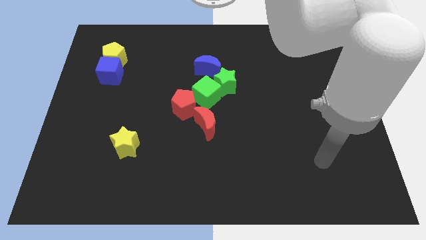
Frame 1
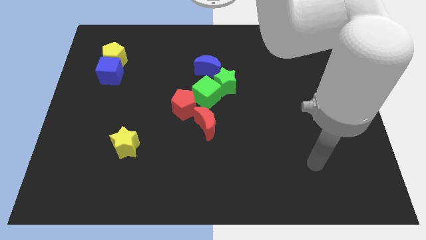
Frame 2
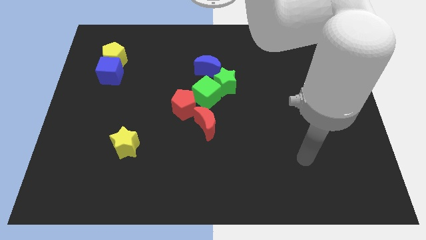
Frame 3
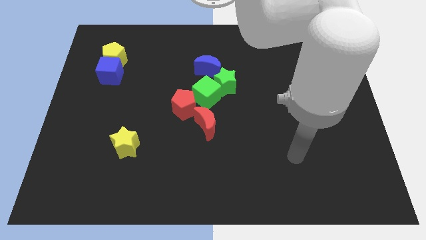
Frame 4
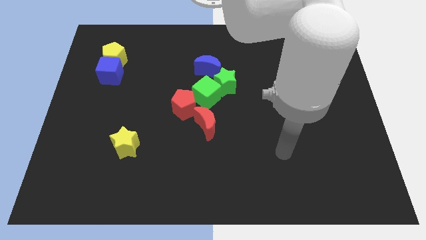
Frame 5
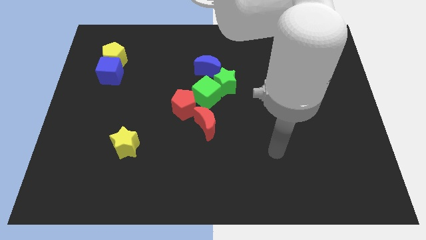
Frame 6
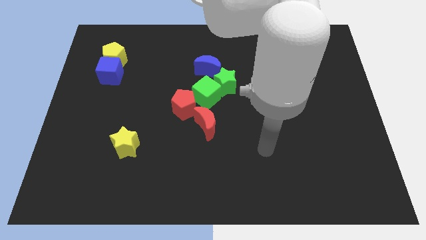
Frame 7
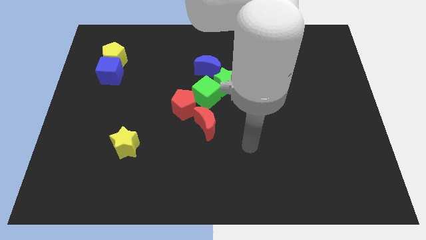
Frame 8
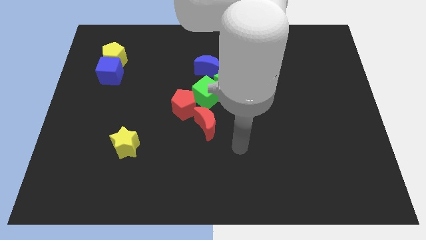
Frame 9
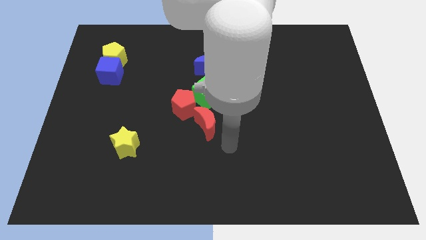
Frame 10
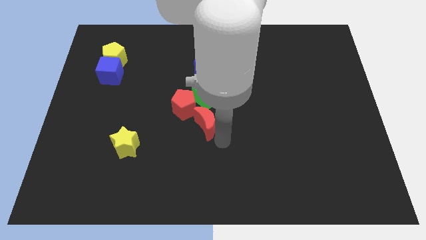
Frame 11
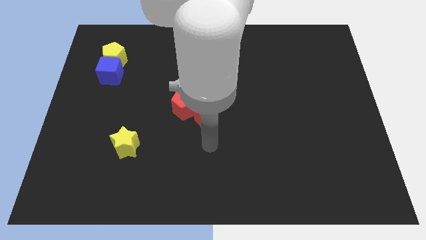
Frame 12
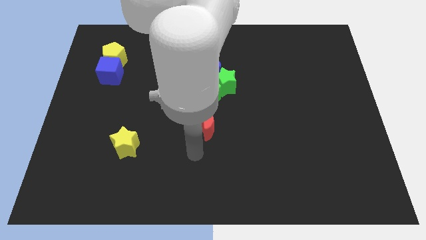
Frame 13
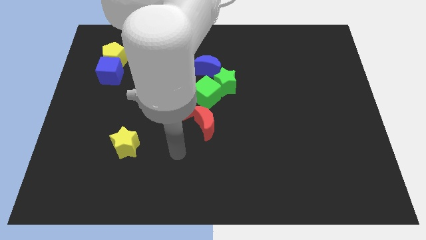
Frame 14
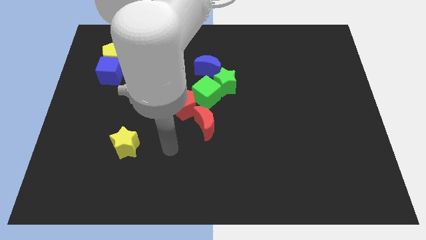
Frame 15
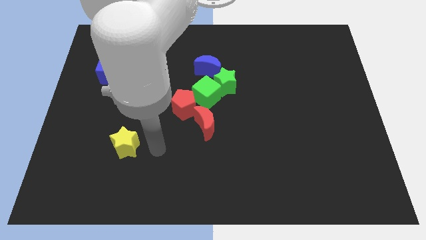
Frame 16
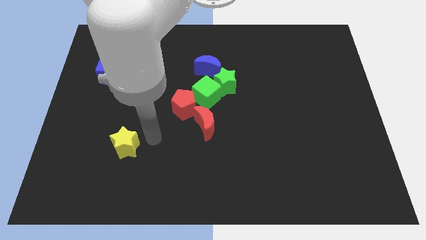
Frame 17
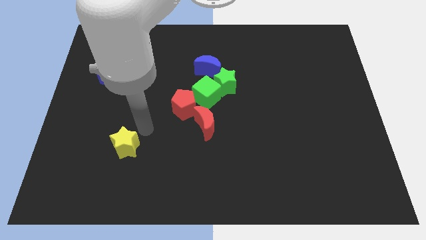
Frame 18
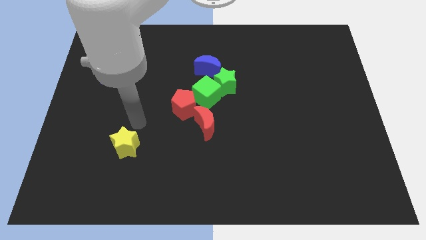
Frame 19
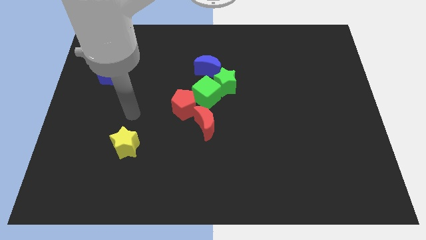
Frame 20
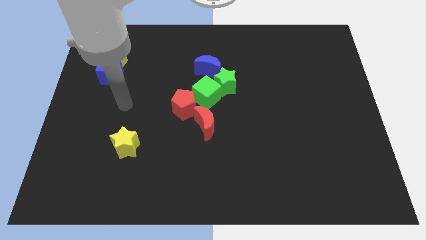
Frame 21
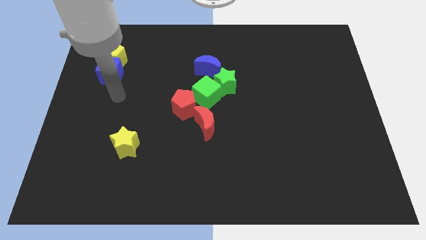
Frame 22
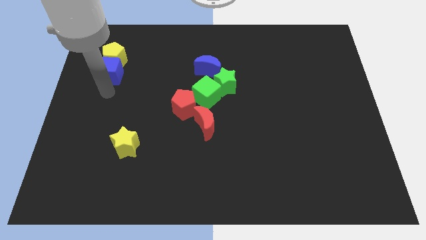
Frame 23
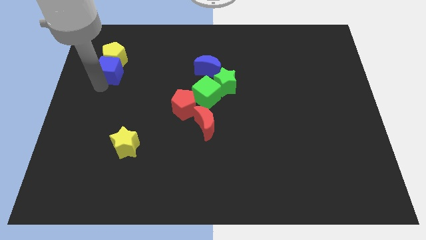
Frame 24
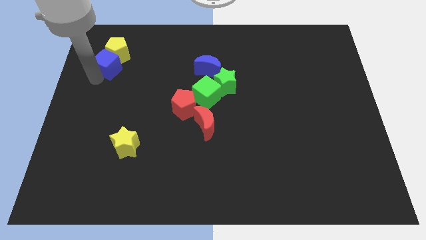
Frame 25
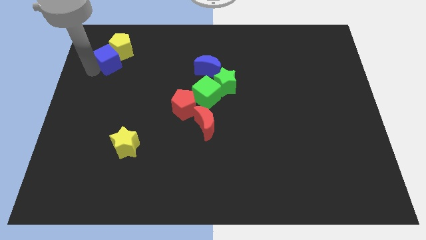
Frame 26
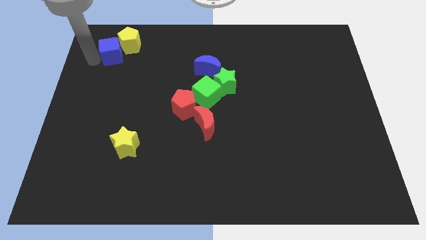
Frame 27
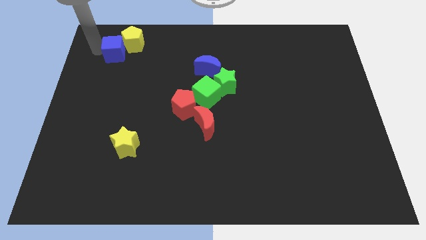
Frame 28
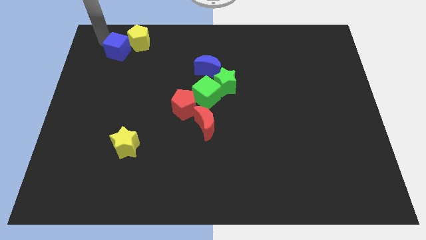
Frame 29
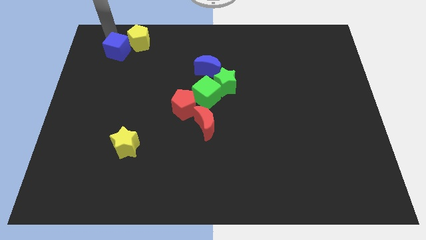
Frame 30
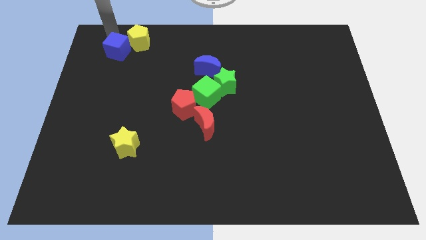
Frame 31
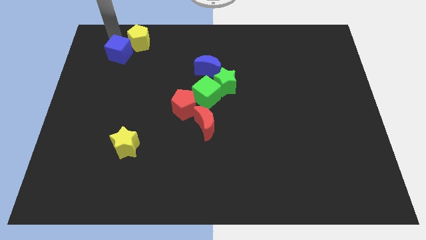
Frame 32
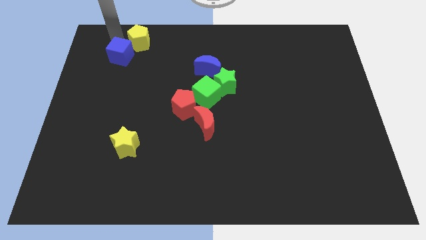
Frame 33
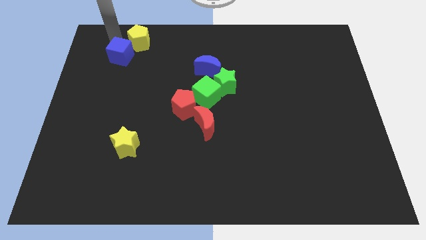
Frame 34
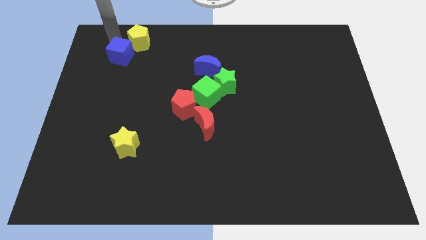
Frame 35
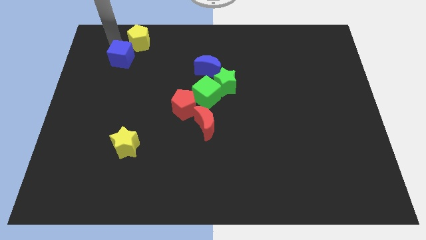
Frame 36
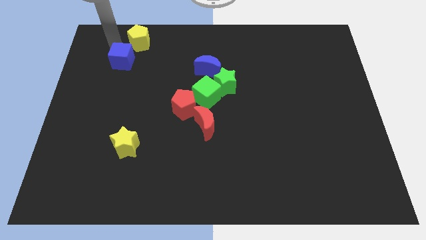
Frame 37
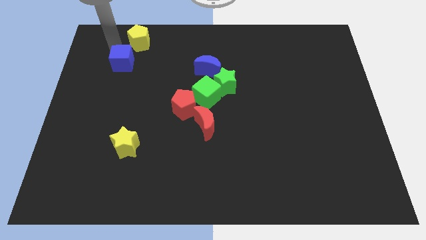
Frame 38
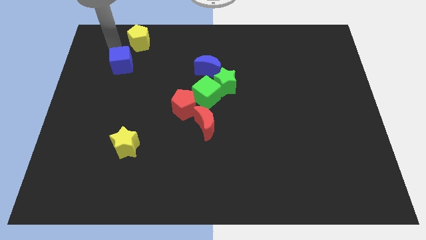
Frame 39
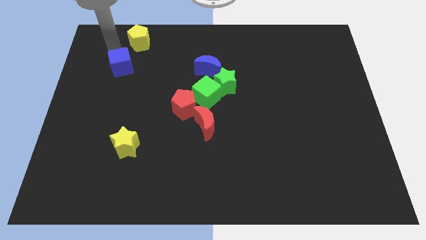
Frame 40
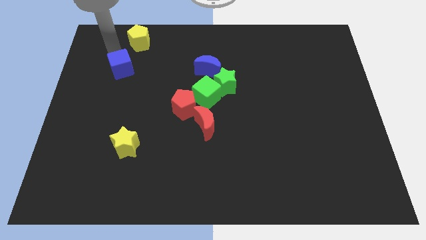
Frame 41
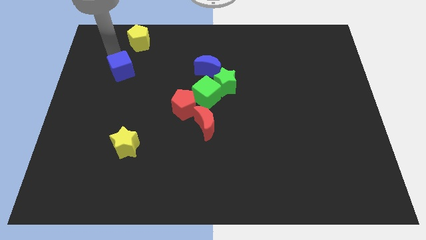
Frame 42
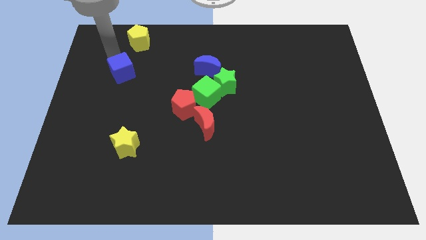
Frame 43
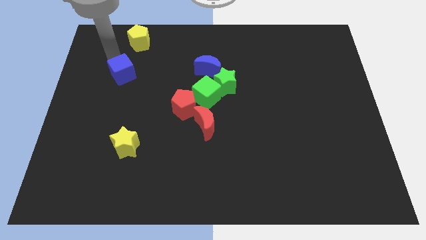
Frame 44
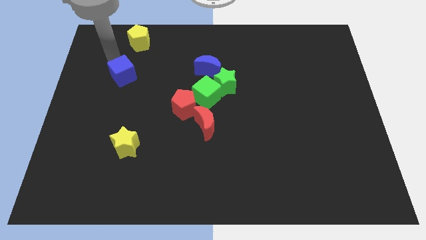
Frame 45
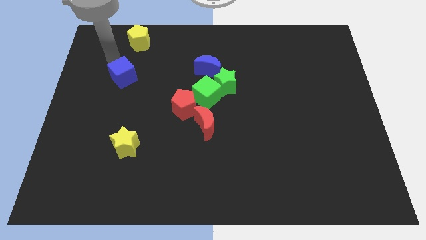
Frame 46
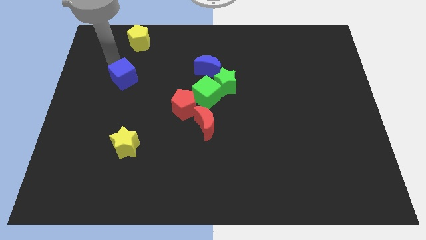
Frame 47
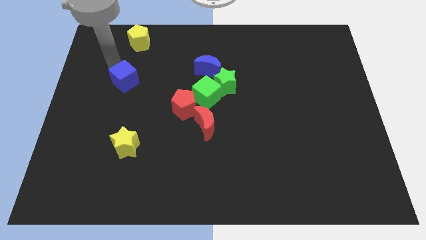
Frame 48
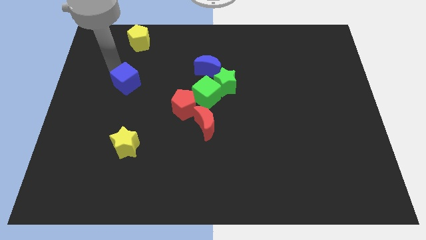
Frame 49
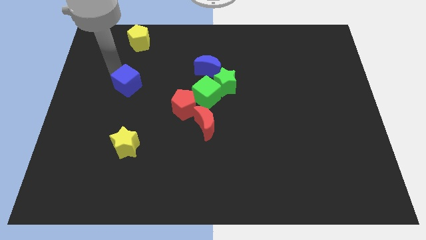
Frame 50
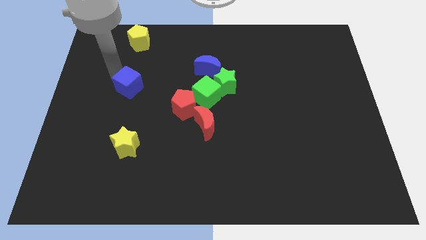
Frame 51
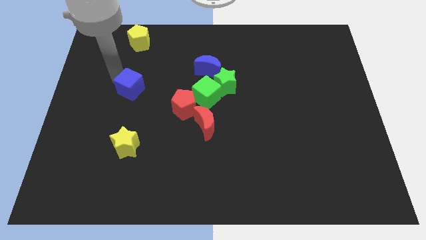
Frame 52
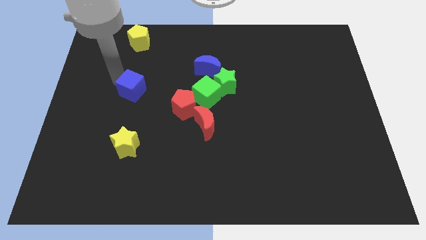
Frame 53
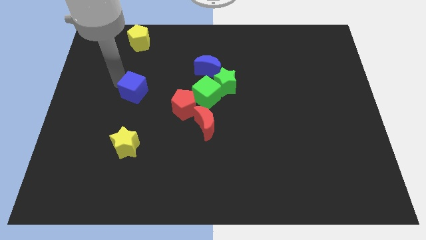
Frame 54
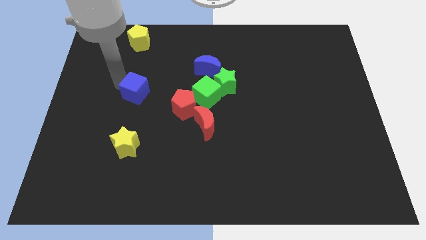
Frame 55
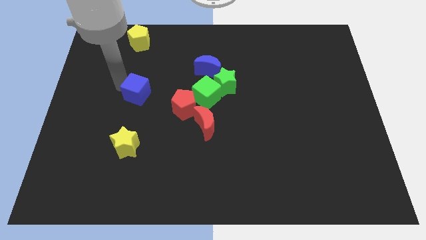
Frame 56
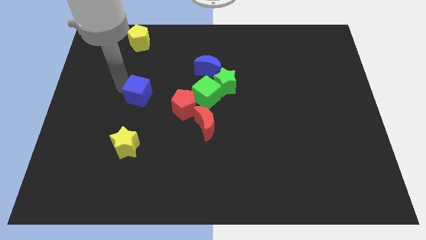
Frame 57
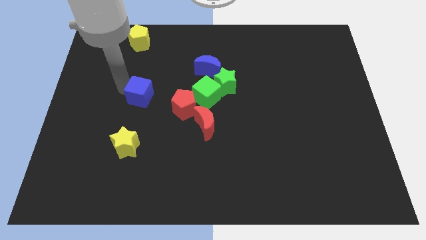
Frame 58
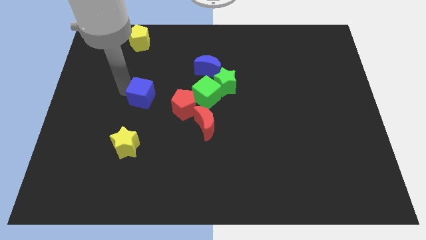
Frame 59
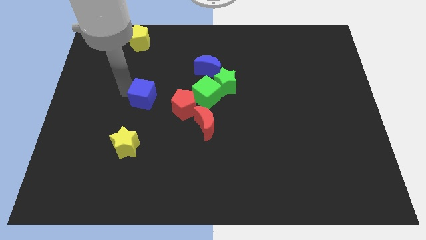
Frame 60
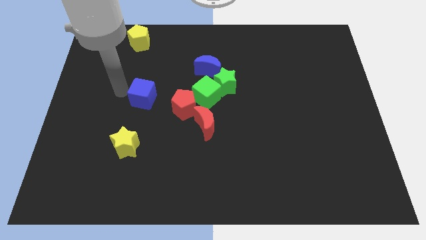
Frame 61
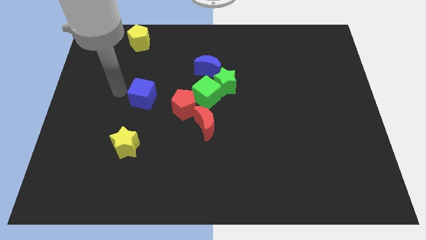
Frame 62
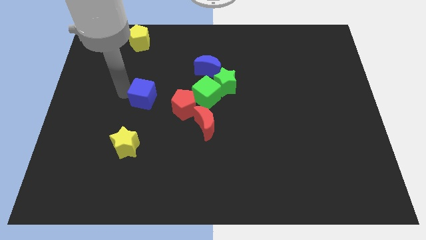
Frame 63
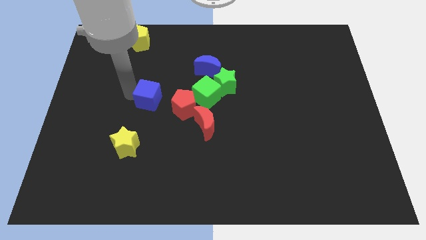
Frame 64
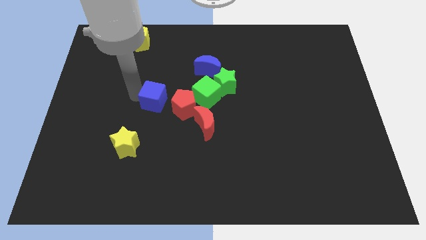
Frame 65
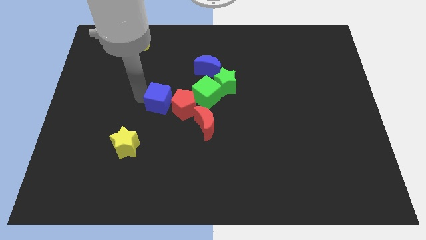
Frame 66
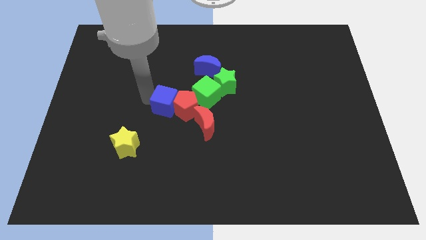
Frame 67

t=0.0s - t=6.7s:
push the blue cube to the red pentagon
